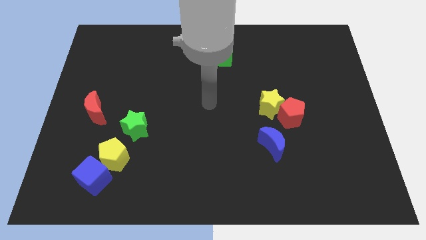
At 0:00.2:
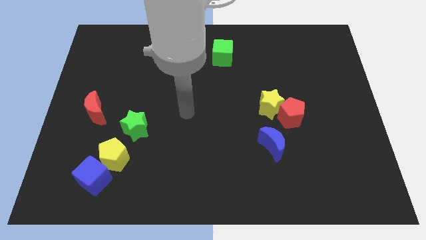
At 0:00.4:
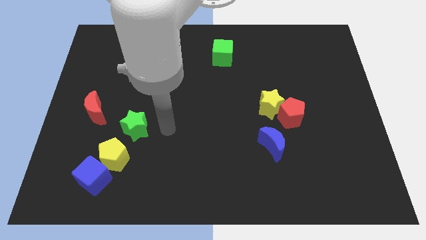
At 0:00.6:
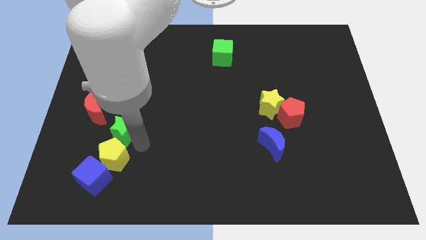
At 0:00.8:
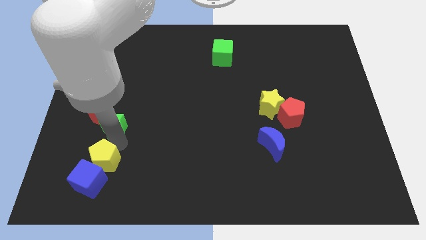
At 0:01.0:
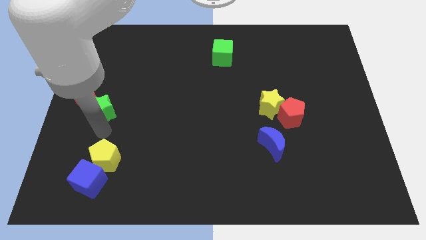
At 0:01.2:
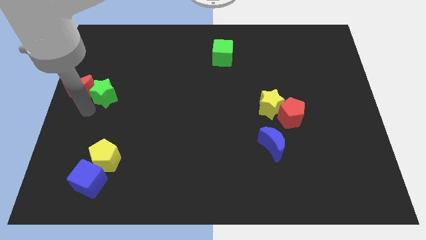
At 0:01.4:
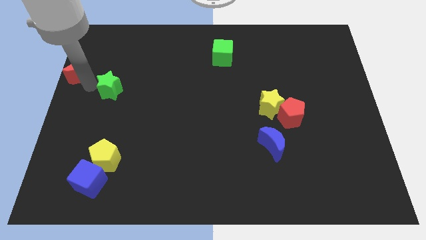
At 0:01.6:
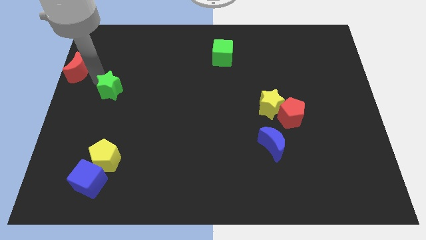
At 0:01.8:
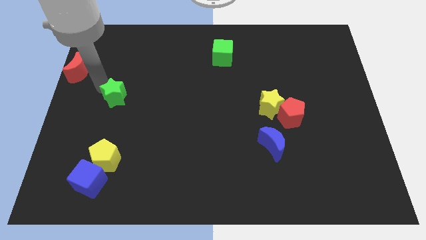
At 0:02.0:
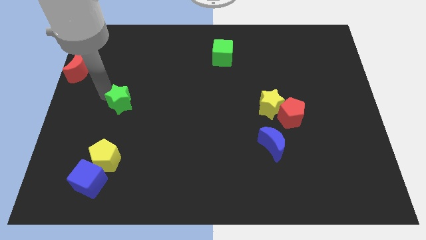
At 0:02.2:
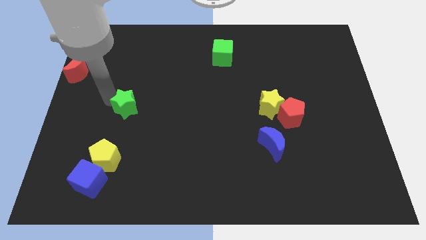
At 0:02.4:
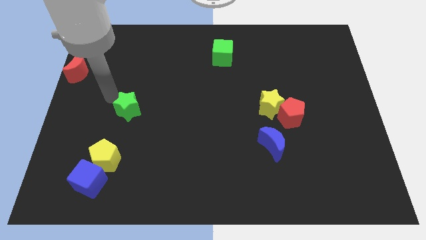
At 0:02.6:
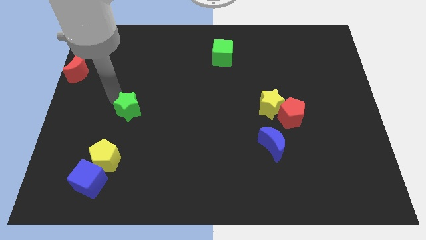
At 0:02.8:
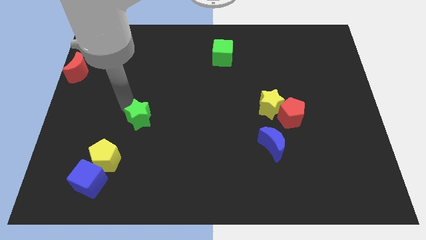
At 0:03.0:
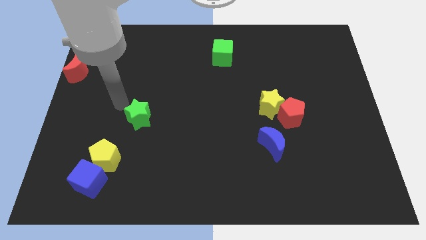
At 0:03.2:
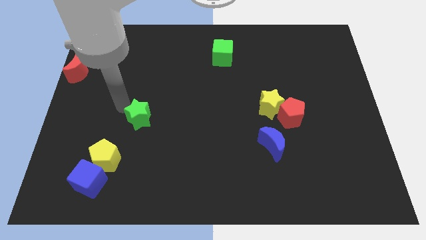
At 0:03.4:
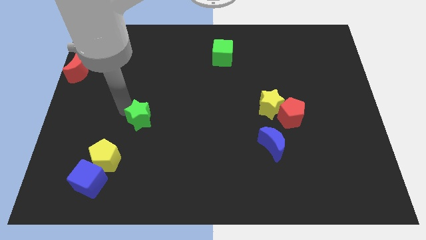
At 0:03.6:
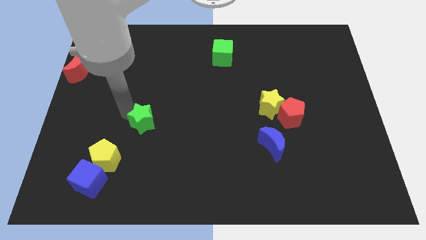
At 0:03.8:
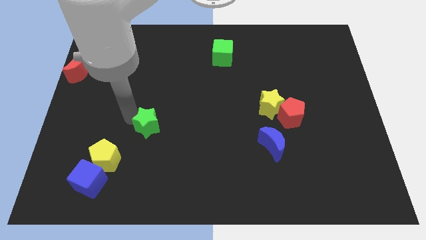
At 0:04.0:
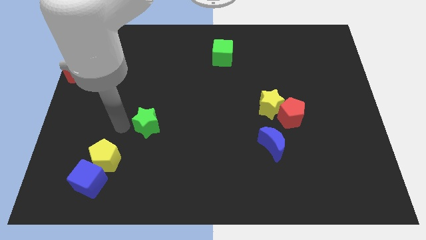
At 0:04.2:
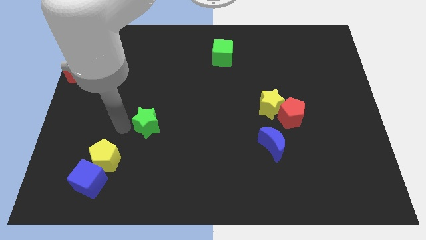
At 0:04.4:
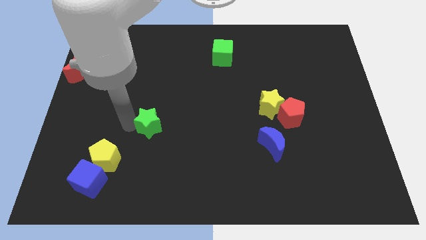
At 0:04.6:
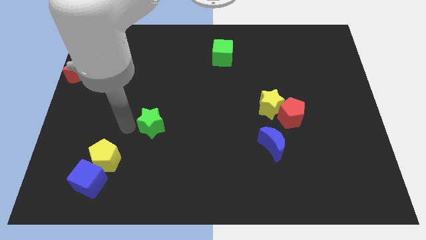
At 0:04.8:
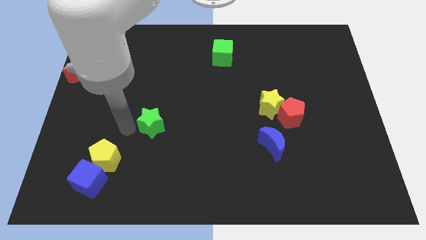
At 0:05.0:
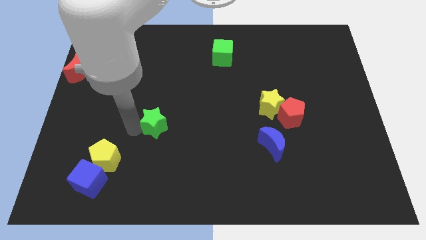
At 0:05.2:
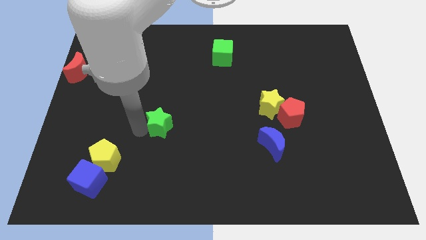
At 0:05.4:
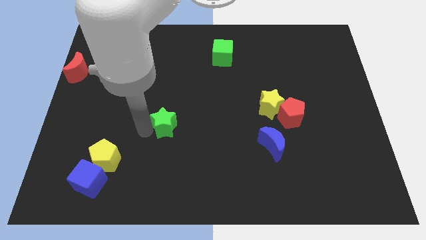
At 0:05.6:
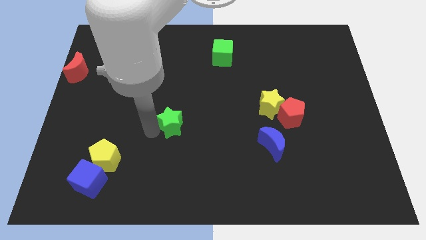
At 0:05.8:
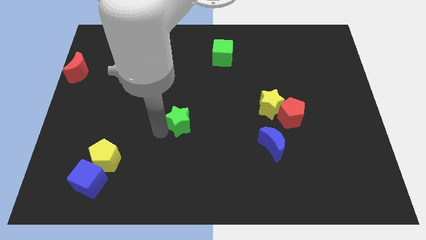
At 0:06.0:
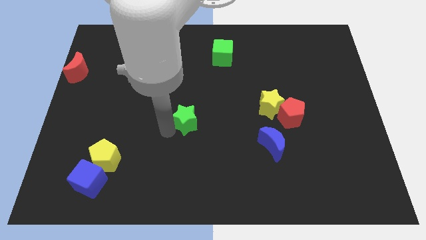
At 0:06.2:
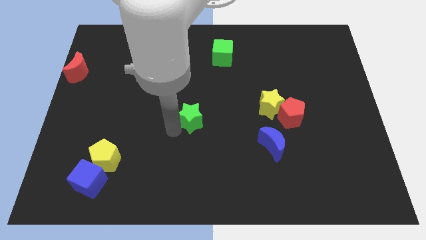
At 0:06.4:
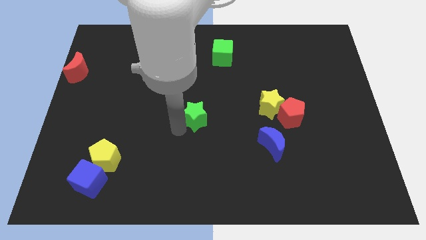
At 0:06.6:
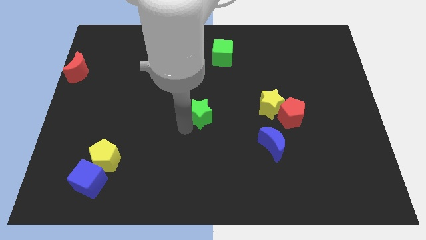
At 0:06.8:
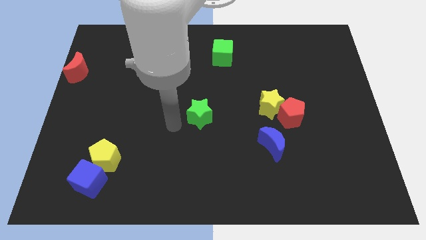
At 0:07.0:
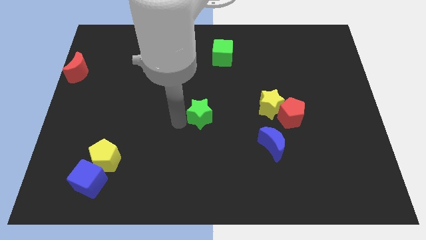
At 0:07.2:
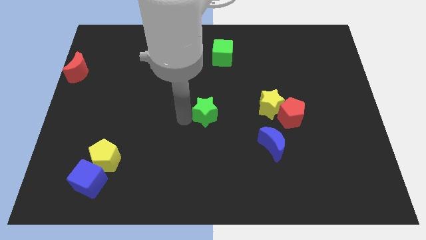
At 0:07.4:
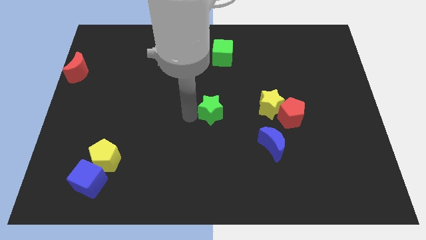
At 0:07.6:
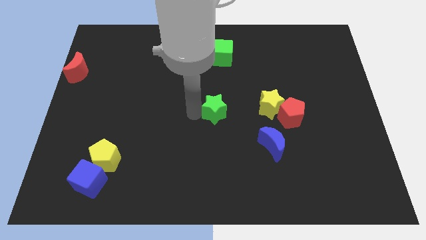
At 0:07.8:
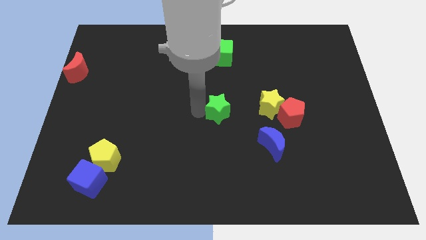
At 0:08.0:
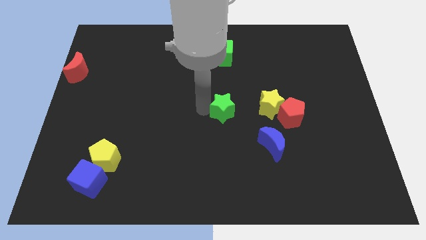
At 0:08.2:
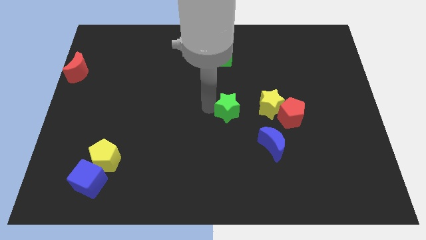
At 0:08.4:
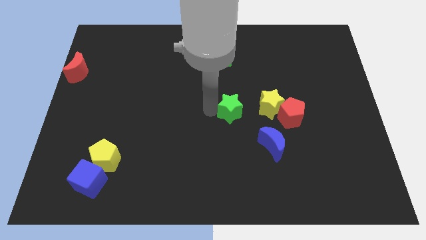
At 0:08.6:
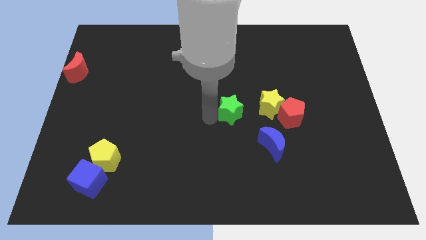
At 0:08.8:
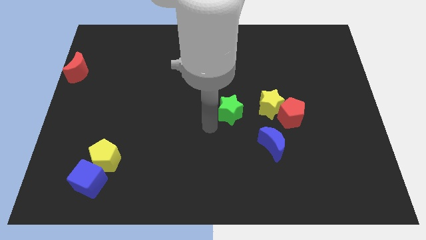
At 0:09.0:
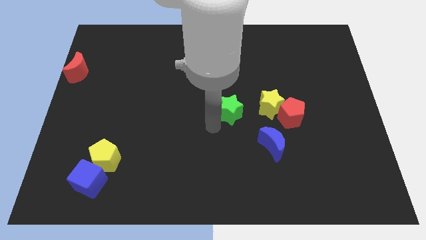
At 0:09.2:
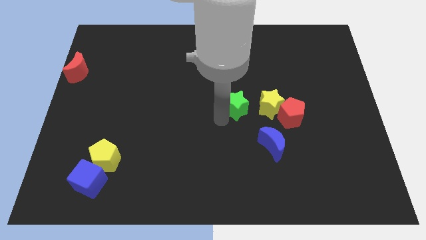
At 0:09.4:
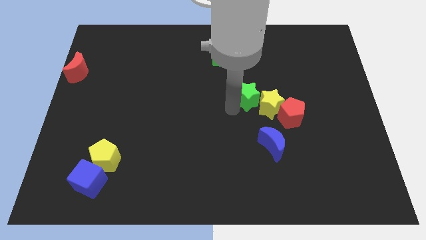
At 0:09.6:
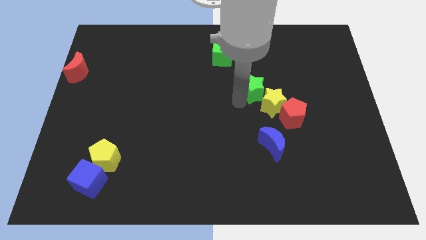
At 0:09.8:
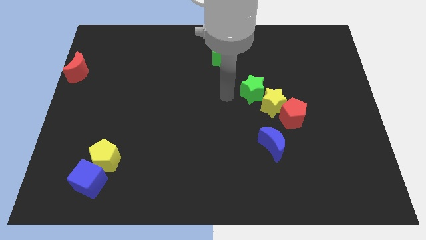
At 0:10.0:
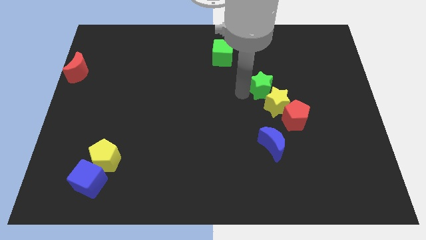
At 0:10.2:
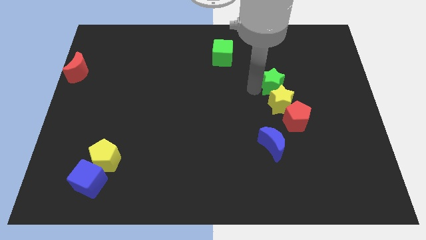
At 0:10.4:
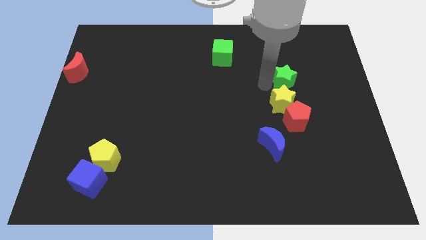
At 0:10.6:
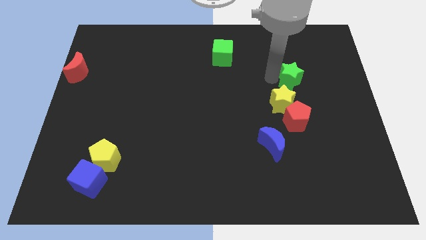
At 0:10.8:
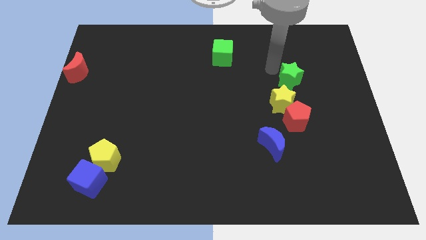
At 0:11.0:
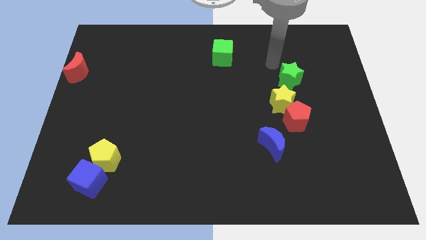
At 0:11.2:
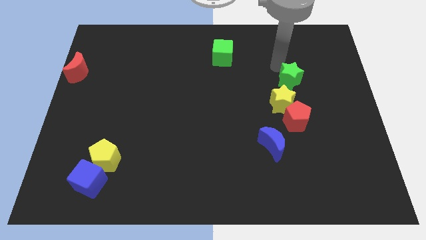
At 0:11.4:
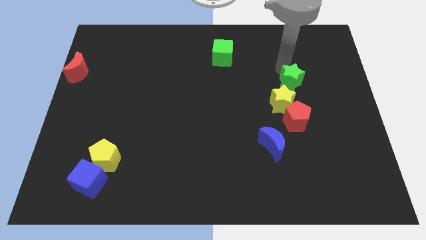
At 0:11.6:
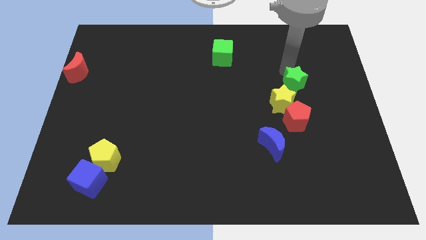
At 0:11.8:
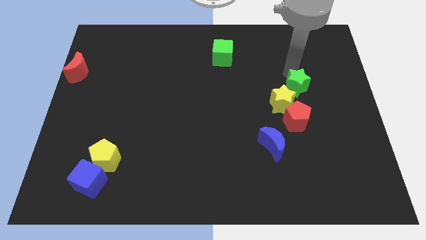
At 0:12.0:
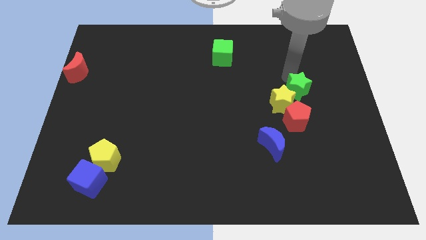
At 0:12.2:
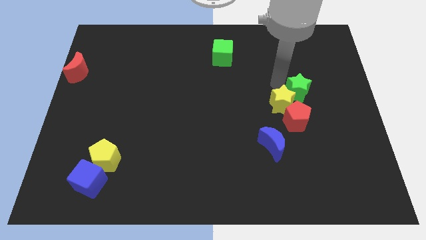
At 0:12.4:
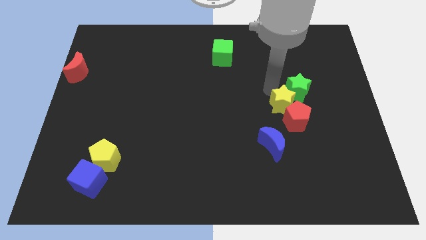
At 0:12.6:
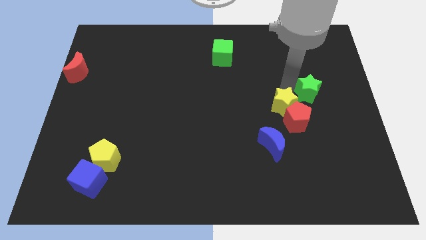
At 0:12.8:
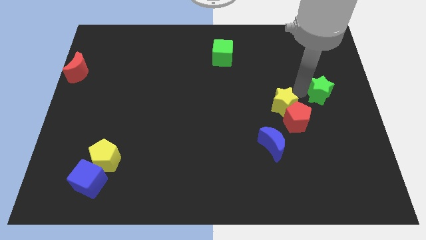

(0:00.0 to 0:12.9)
push the green star to the right side of the board

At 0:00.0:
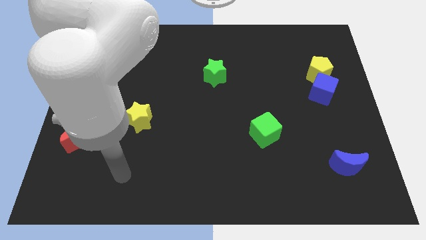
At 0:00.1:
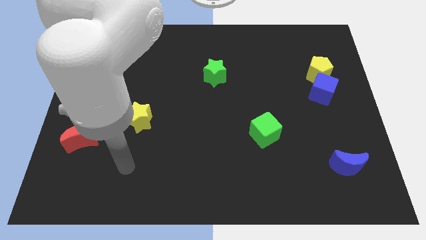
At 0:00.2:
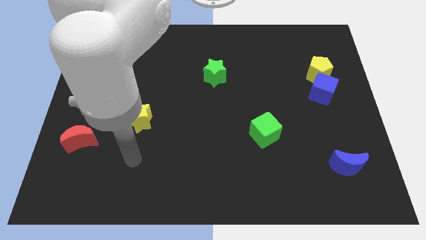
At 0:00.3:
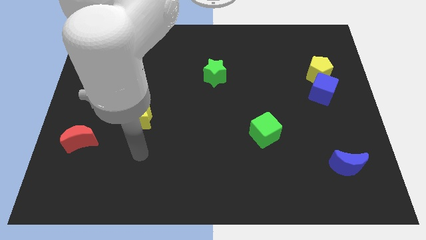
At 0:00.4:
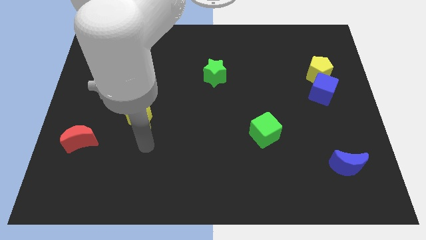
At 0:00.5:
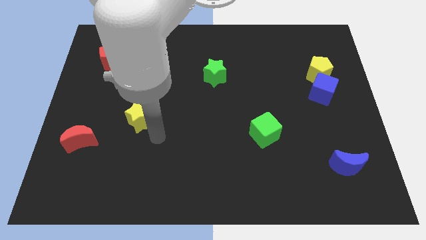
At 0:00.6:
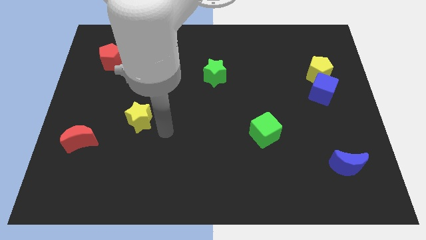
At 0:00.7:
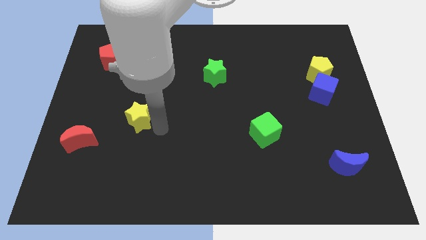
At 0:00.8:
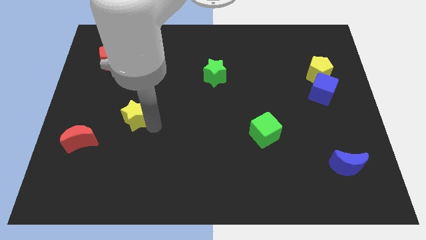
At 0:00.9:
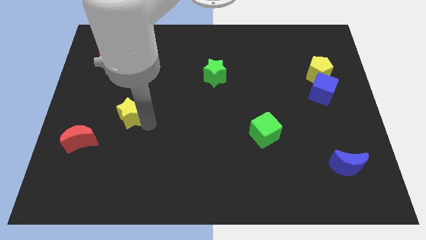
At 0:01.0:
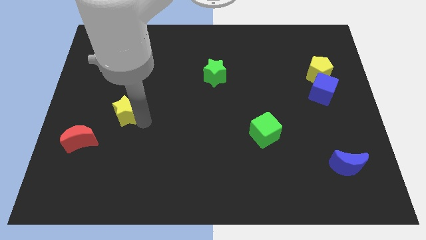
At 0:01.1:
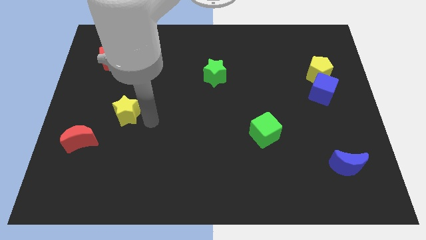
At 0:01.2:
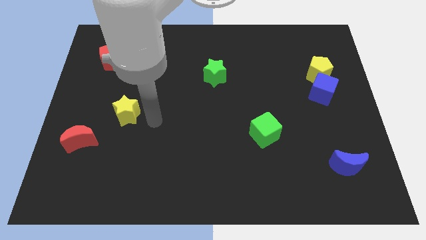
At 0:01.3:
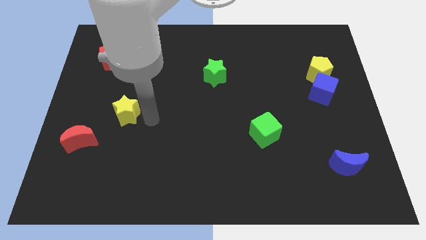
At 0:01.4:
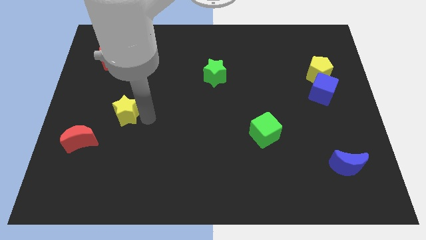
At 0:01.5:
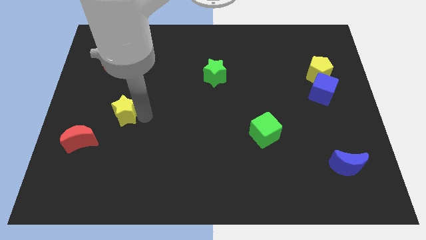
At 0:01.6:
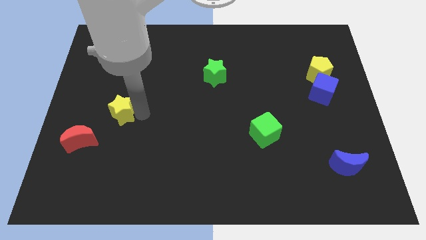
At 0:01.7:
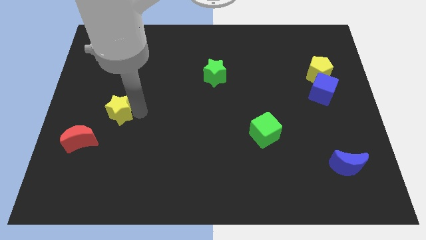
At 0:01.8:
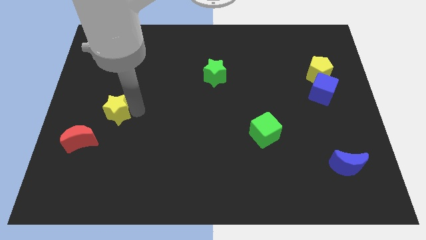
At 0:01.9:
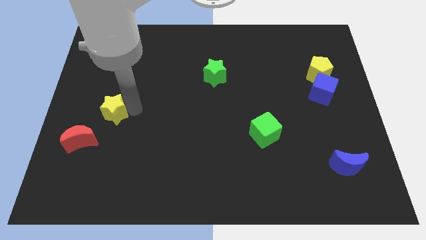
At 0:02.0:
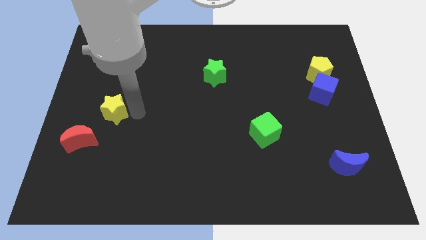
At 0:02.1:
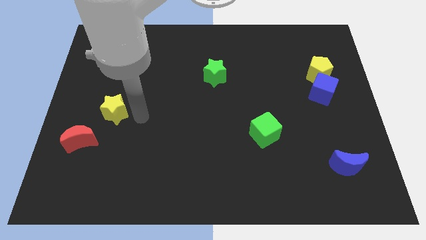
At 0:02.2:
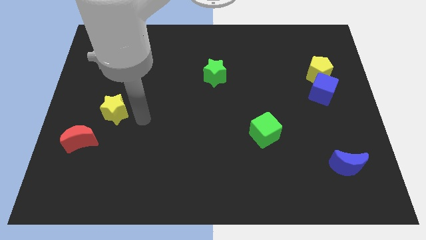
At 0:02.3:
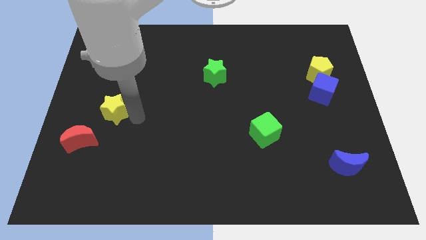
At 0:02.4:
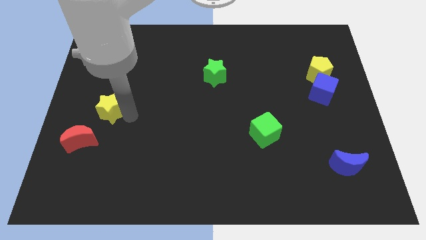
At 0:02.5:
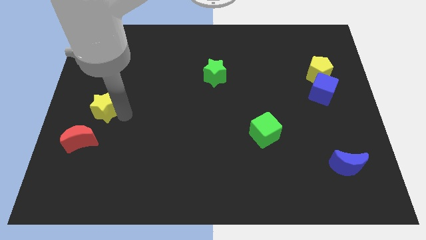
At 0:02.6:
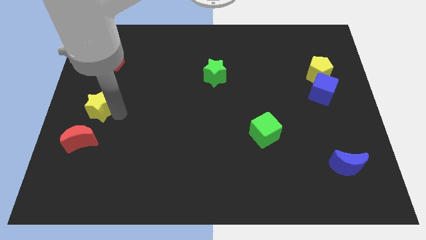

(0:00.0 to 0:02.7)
move the yellow star to the left side of the board
